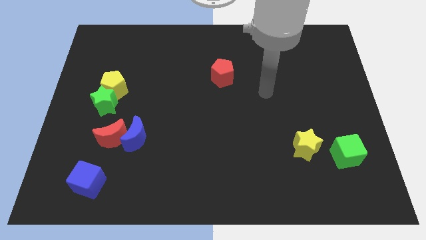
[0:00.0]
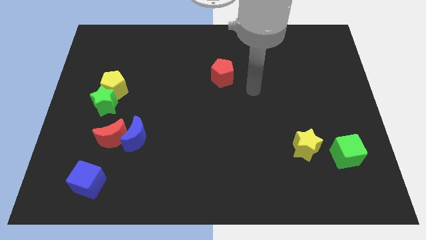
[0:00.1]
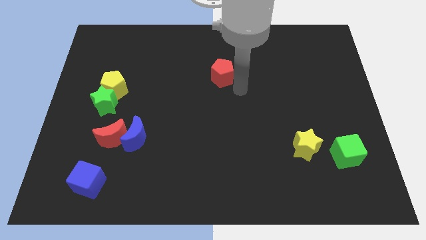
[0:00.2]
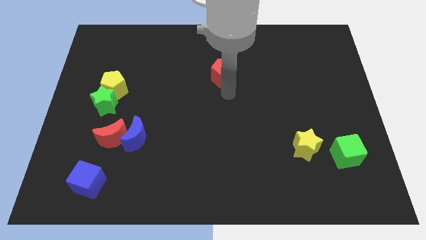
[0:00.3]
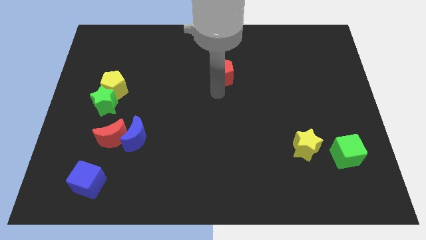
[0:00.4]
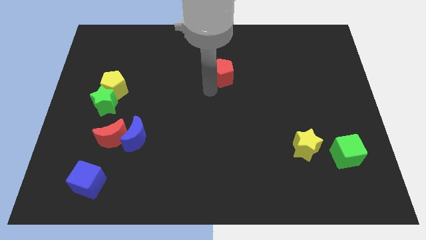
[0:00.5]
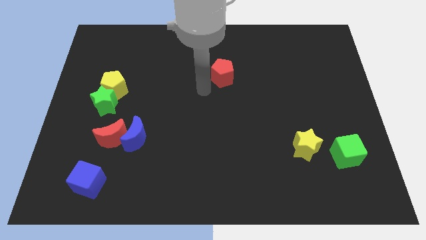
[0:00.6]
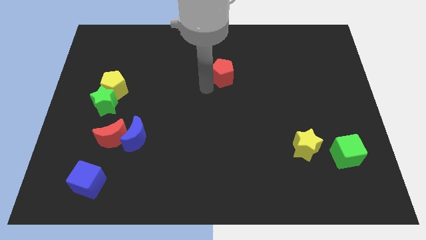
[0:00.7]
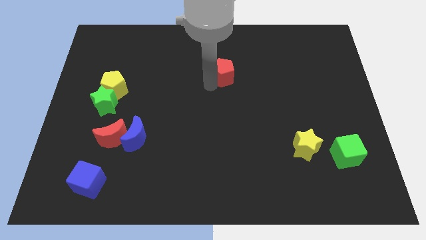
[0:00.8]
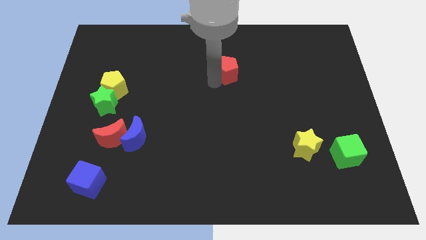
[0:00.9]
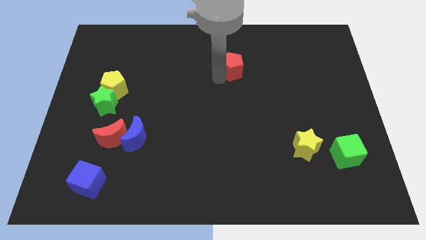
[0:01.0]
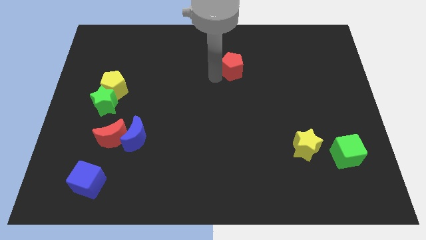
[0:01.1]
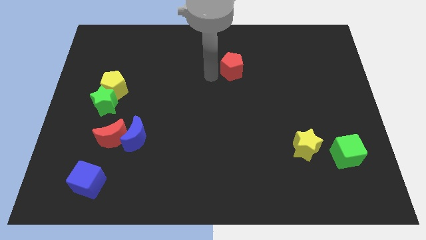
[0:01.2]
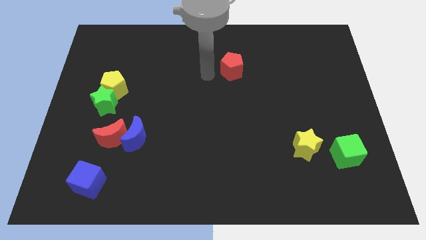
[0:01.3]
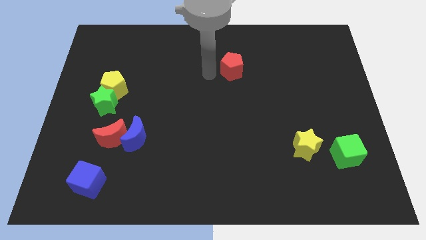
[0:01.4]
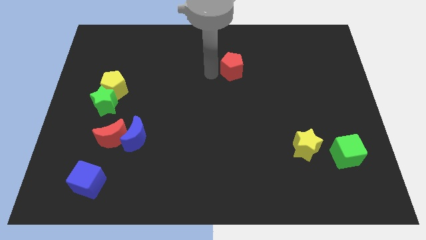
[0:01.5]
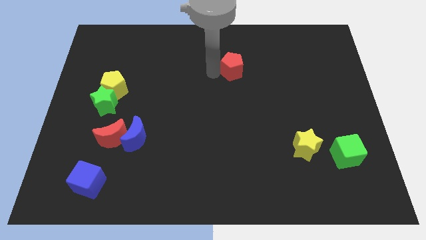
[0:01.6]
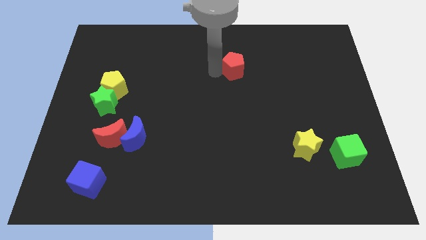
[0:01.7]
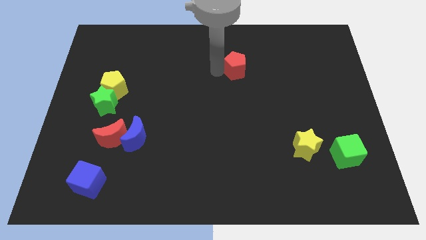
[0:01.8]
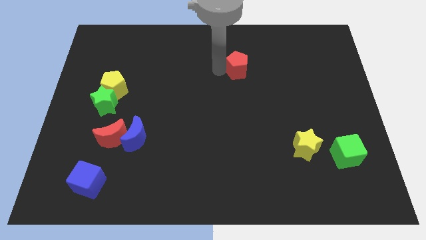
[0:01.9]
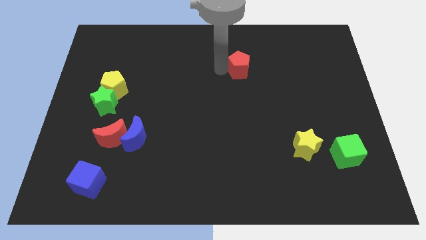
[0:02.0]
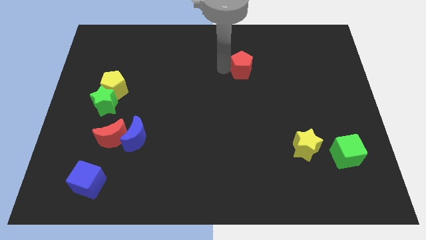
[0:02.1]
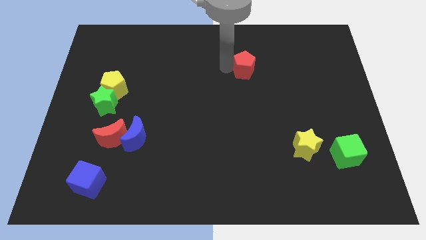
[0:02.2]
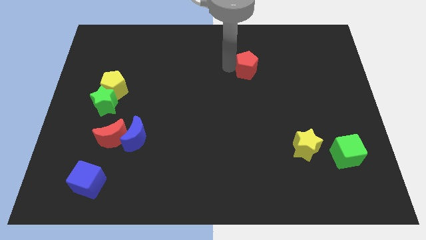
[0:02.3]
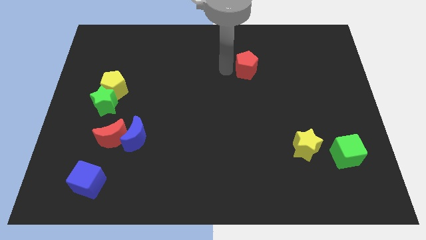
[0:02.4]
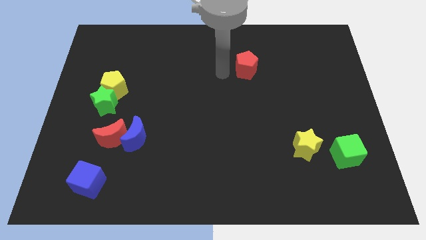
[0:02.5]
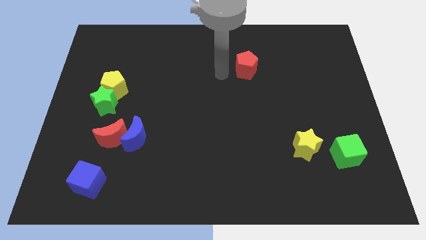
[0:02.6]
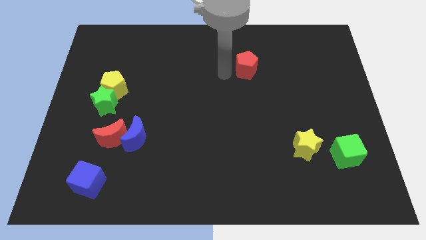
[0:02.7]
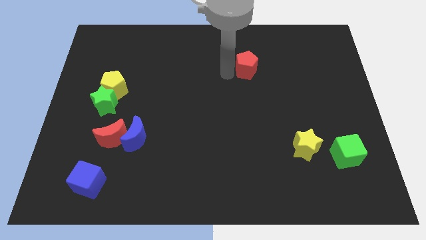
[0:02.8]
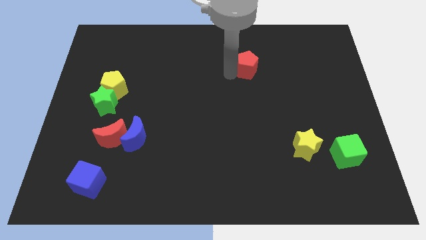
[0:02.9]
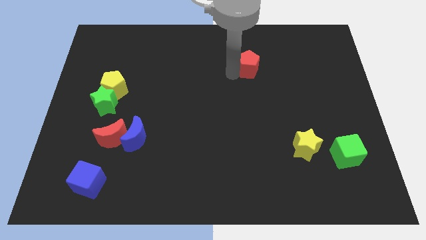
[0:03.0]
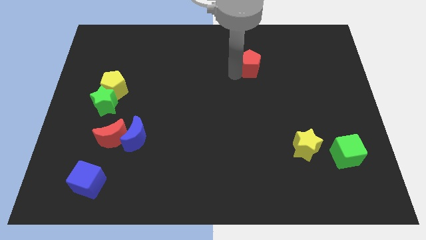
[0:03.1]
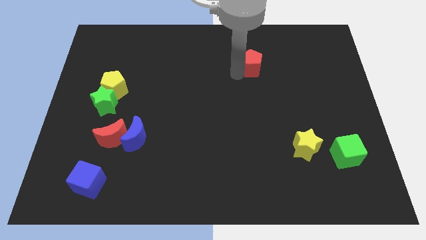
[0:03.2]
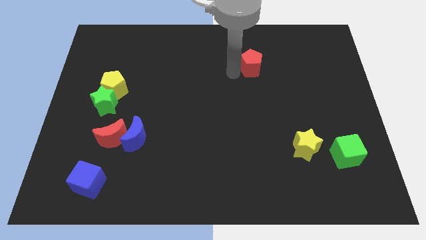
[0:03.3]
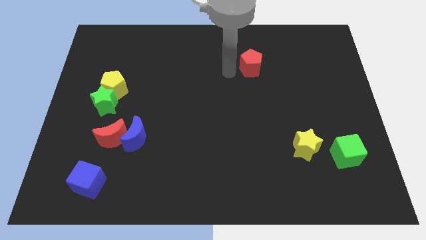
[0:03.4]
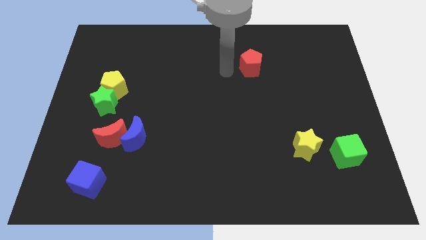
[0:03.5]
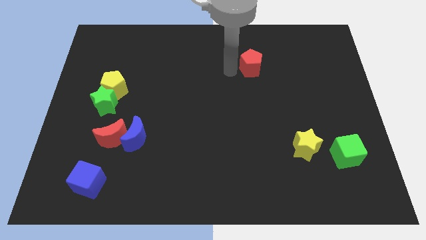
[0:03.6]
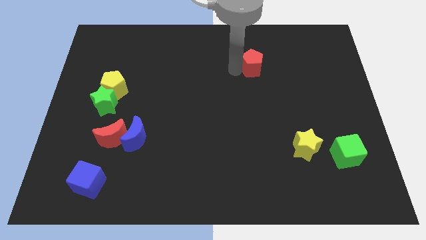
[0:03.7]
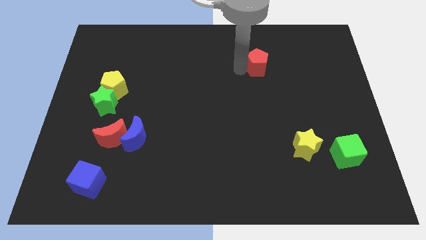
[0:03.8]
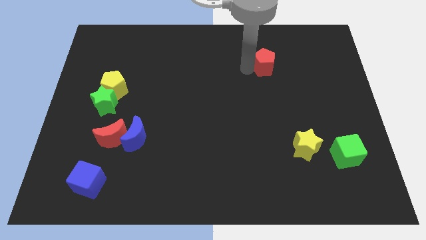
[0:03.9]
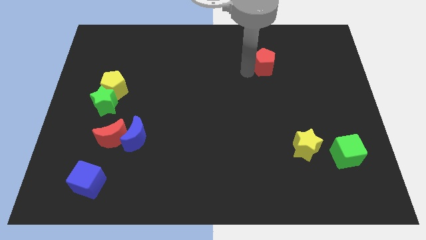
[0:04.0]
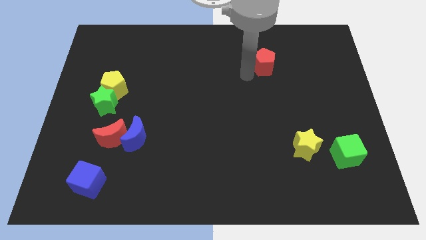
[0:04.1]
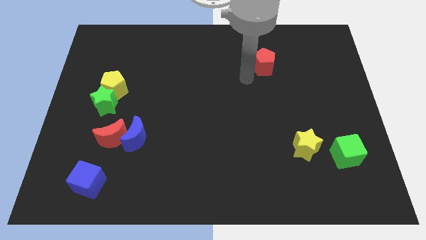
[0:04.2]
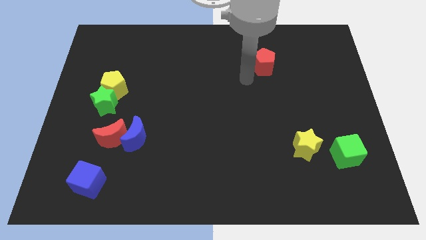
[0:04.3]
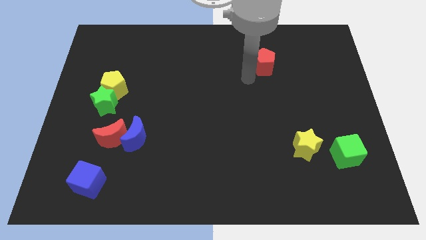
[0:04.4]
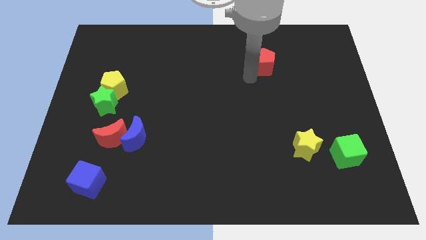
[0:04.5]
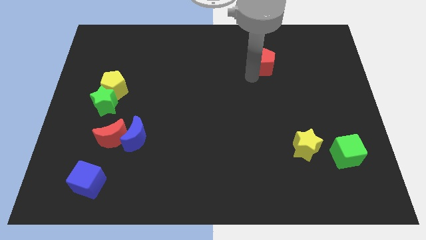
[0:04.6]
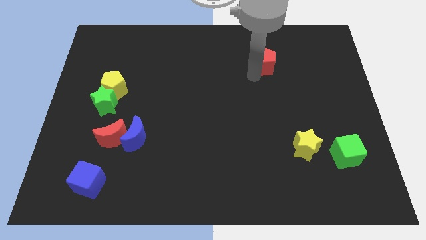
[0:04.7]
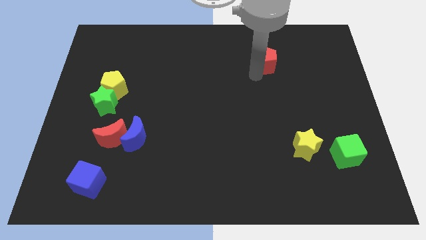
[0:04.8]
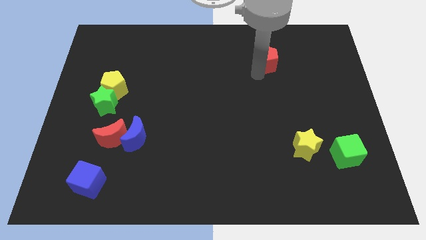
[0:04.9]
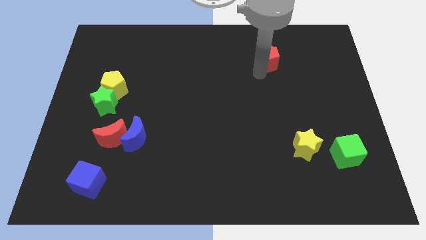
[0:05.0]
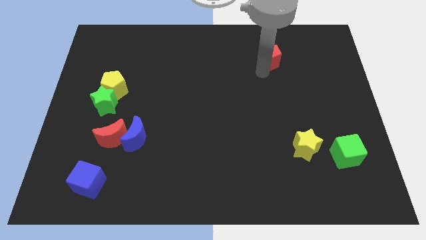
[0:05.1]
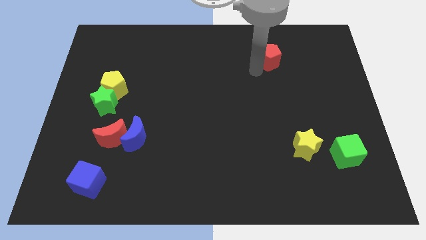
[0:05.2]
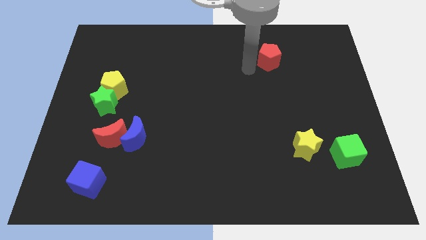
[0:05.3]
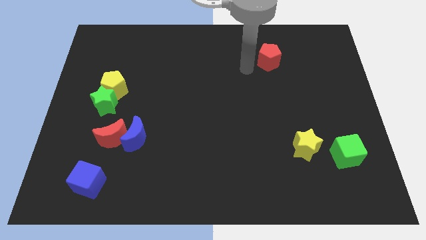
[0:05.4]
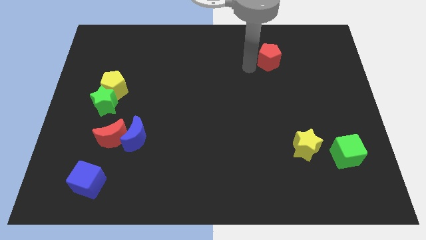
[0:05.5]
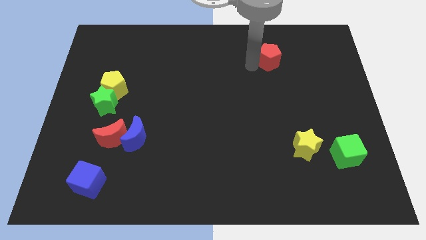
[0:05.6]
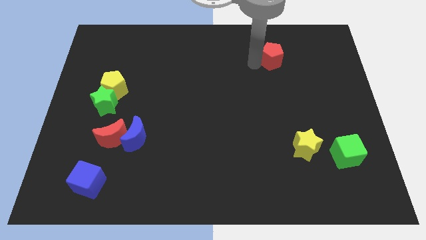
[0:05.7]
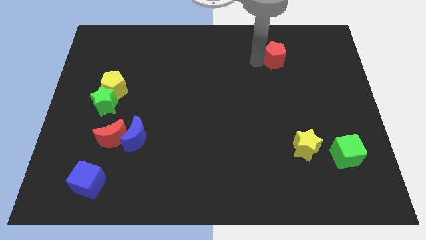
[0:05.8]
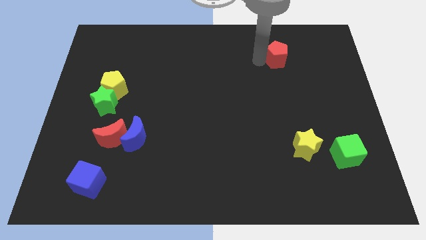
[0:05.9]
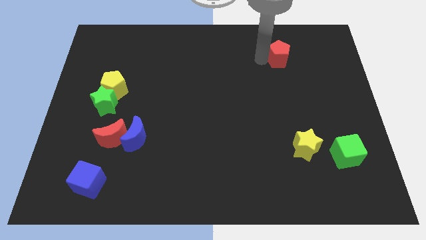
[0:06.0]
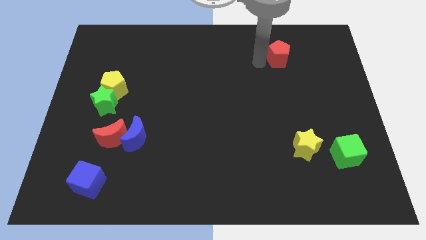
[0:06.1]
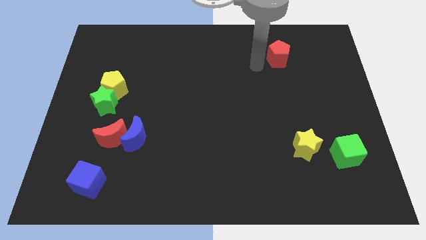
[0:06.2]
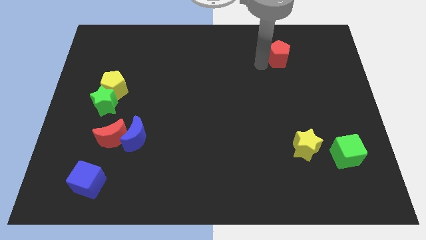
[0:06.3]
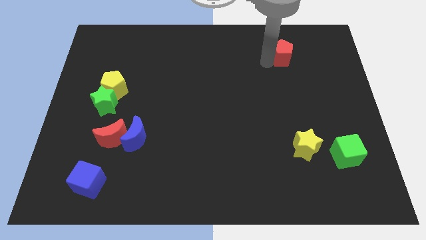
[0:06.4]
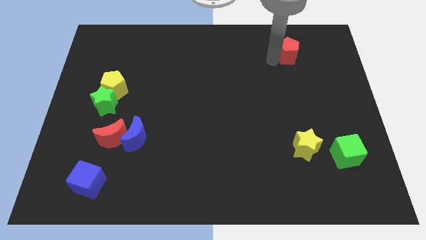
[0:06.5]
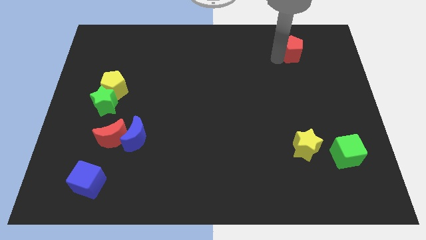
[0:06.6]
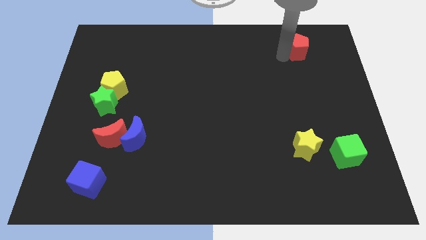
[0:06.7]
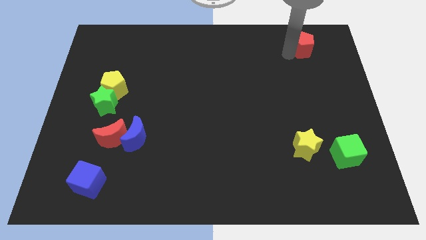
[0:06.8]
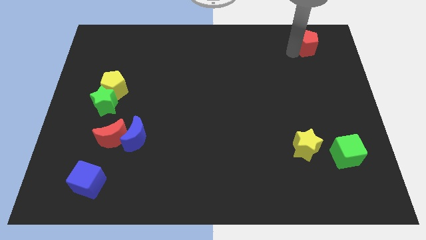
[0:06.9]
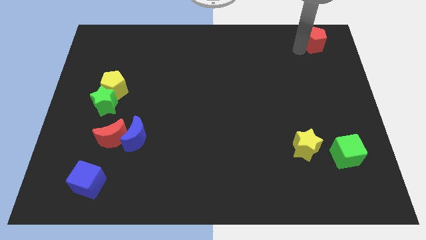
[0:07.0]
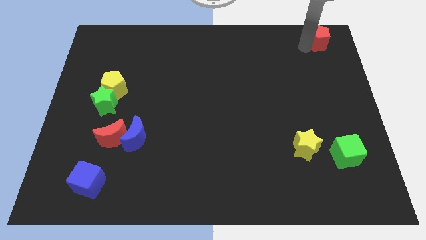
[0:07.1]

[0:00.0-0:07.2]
push the red pentagon to the top right of the board
